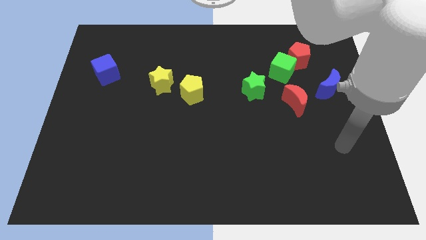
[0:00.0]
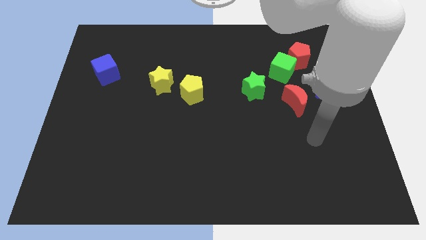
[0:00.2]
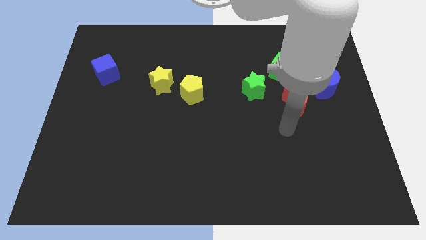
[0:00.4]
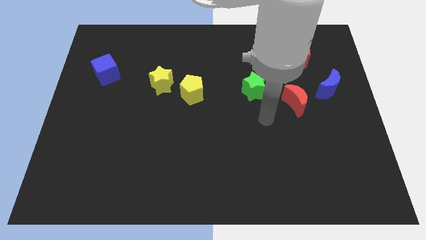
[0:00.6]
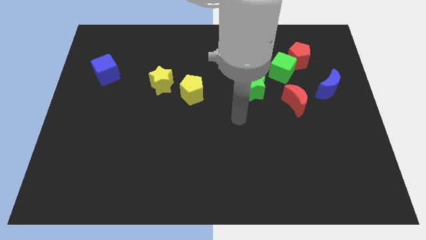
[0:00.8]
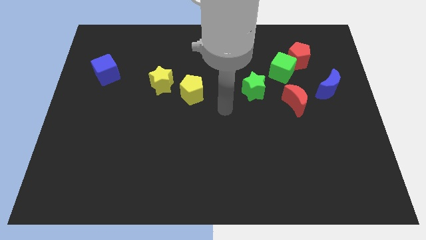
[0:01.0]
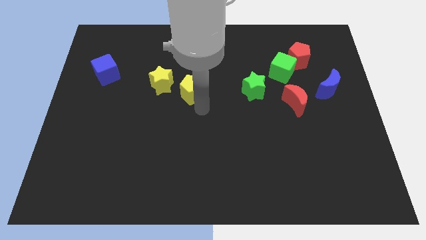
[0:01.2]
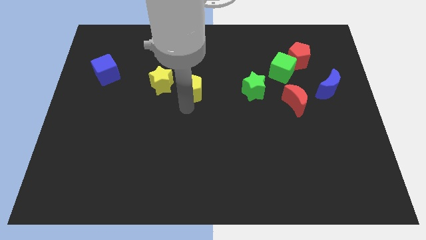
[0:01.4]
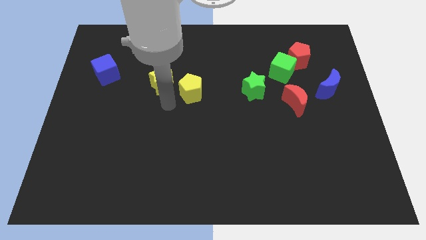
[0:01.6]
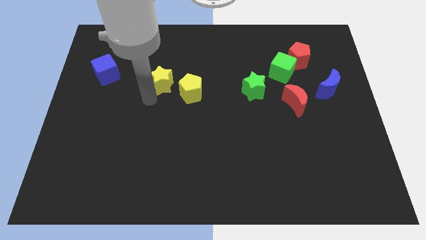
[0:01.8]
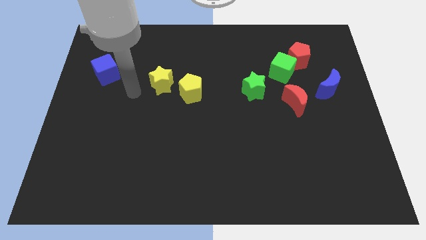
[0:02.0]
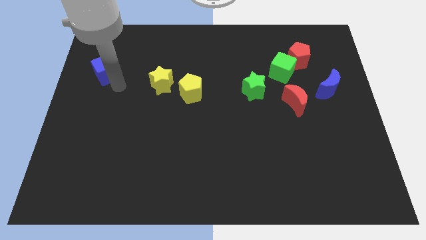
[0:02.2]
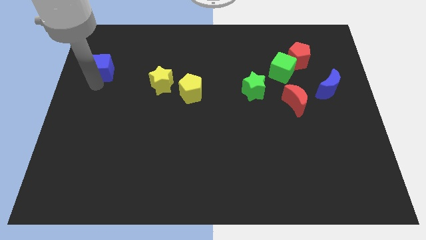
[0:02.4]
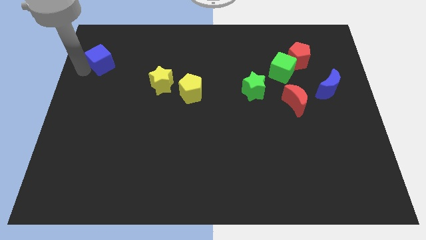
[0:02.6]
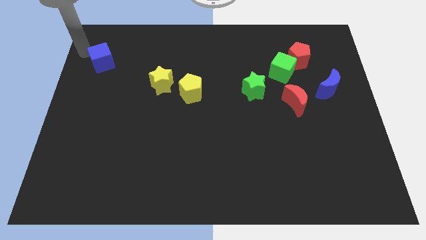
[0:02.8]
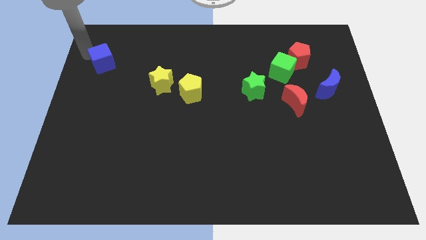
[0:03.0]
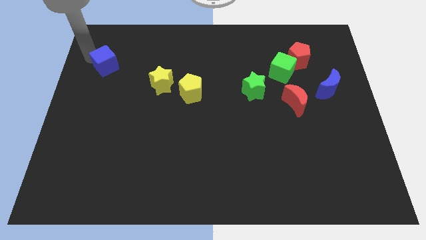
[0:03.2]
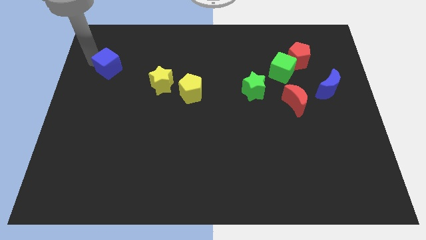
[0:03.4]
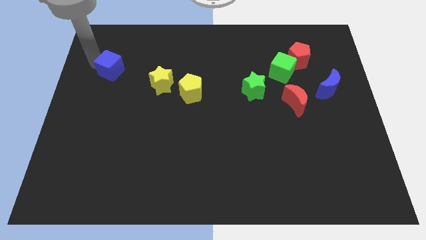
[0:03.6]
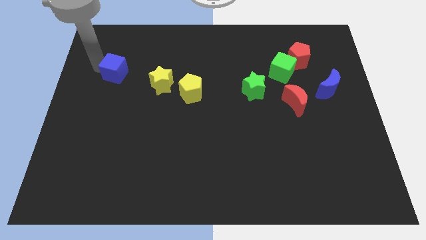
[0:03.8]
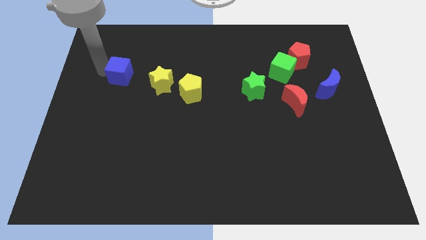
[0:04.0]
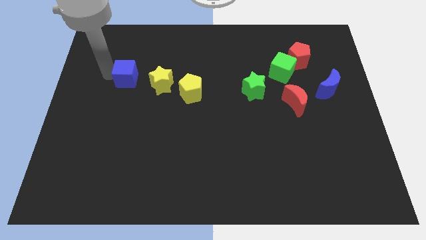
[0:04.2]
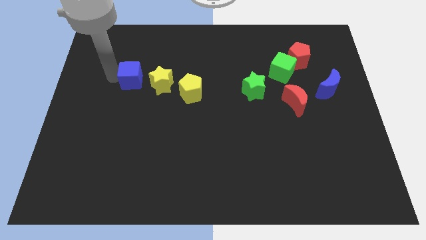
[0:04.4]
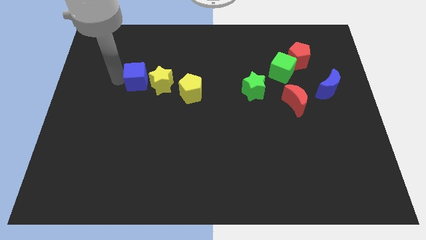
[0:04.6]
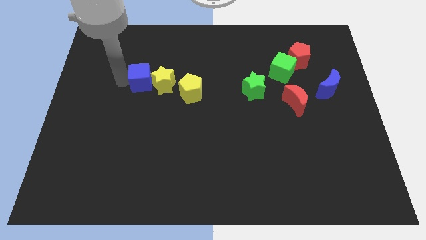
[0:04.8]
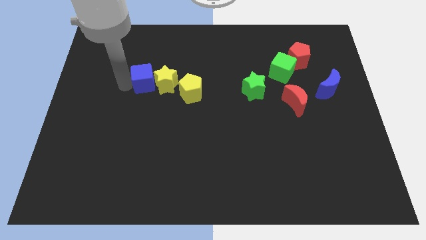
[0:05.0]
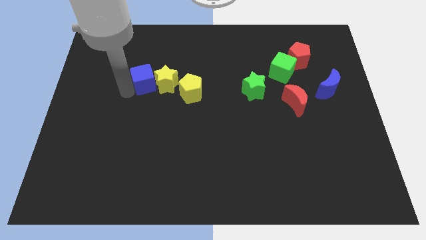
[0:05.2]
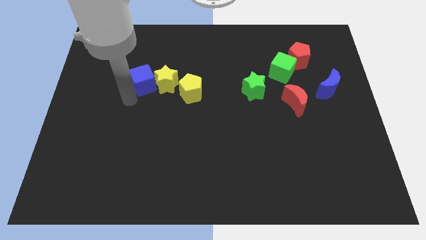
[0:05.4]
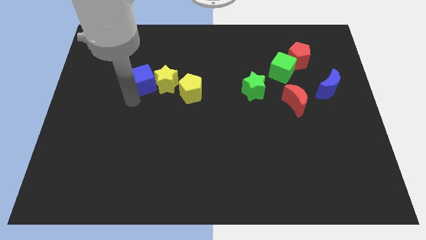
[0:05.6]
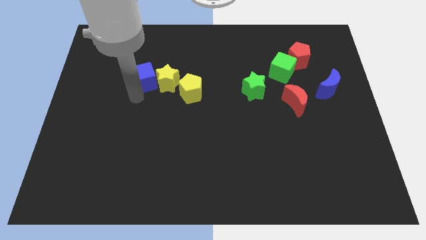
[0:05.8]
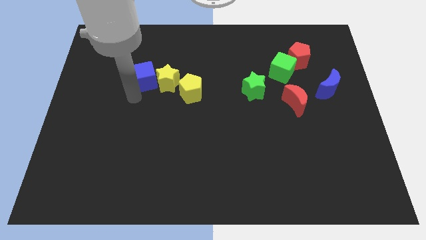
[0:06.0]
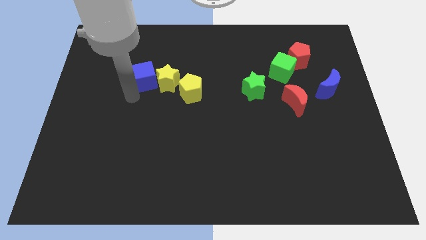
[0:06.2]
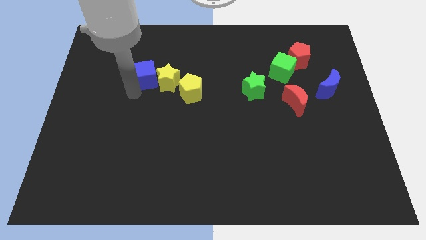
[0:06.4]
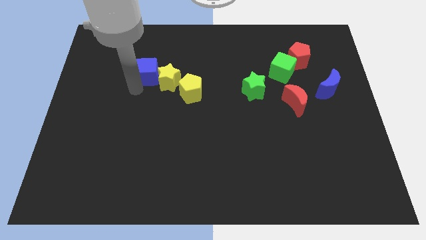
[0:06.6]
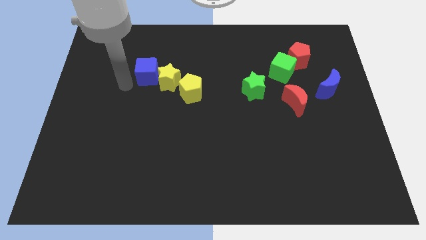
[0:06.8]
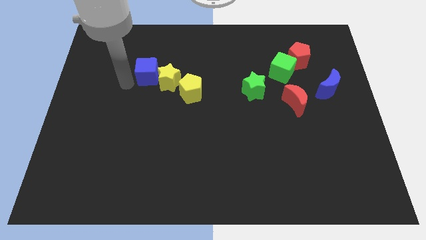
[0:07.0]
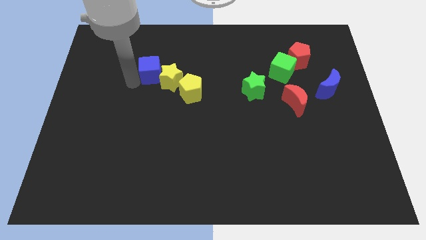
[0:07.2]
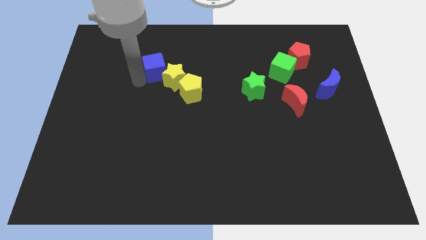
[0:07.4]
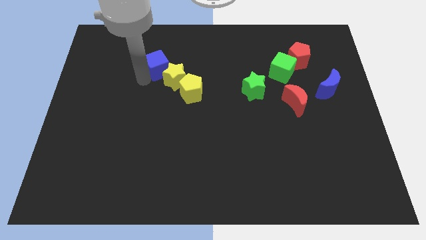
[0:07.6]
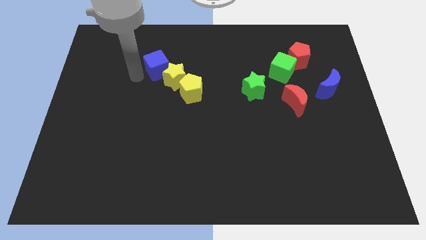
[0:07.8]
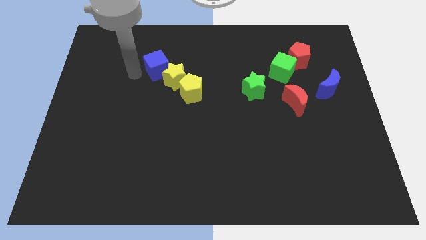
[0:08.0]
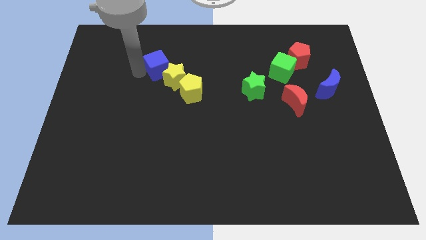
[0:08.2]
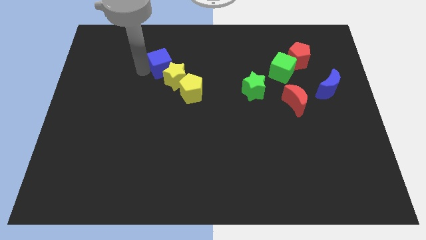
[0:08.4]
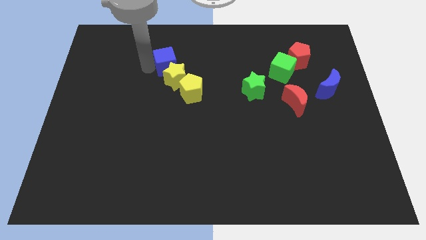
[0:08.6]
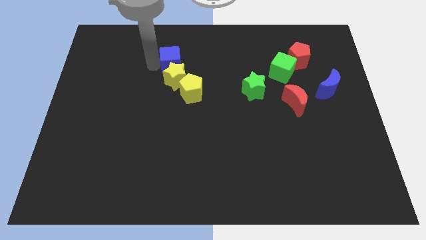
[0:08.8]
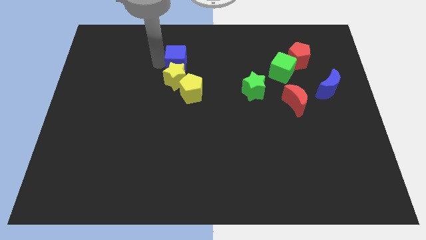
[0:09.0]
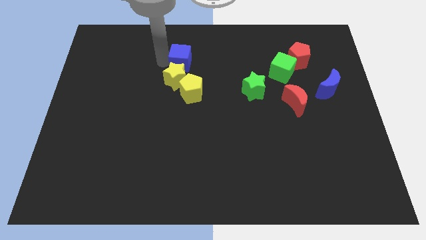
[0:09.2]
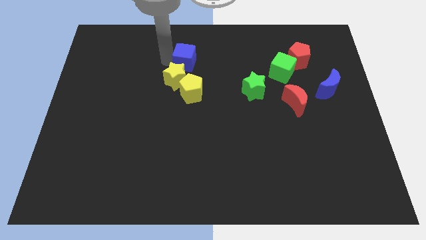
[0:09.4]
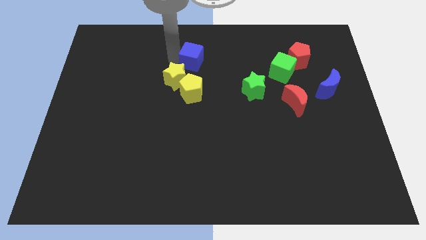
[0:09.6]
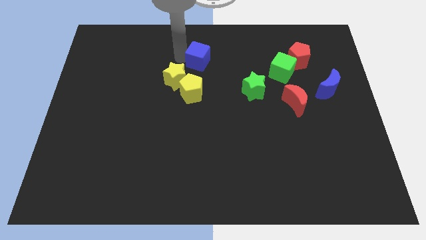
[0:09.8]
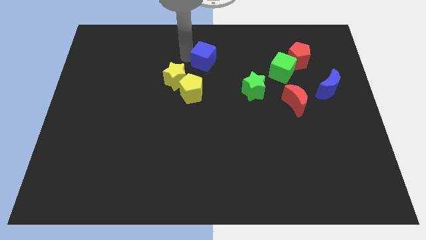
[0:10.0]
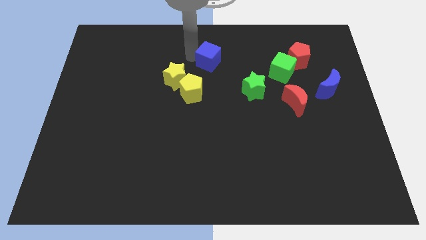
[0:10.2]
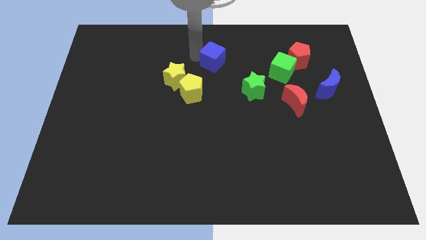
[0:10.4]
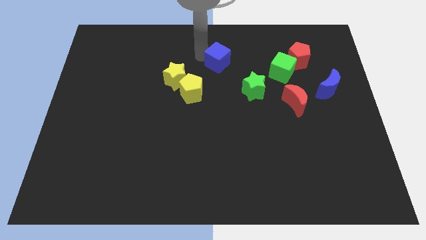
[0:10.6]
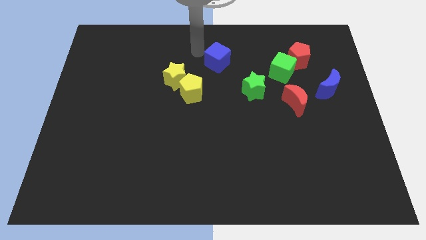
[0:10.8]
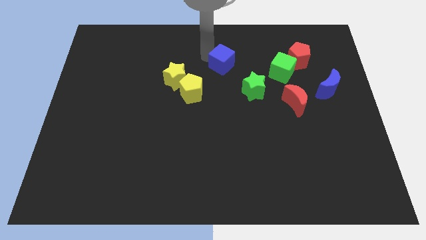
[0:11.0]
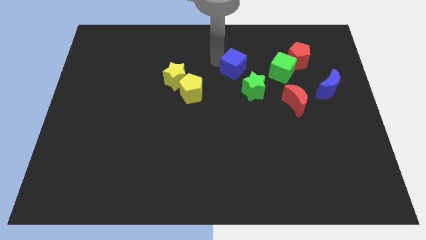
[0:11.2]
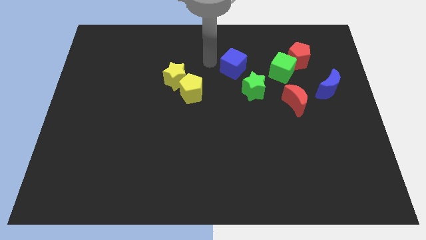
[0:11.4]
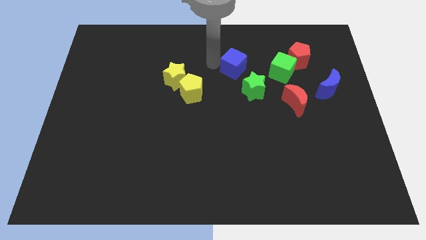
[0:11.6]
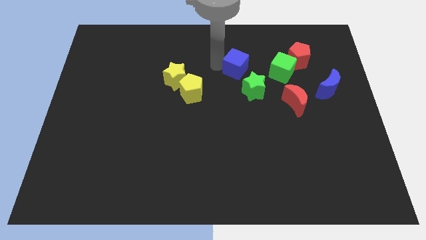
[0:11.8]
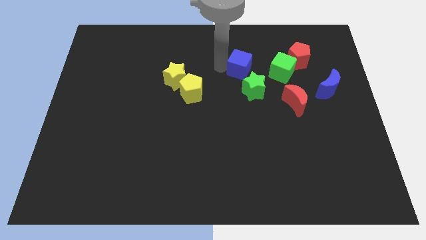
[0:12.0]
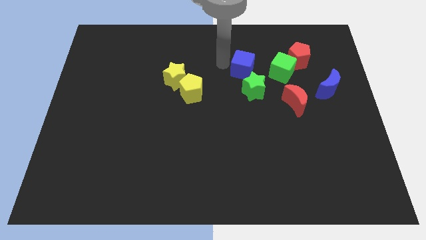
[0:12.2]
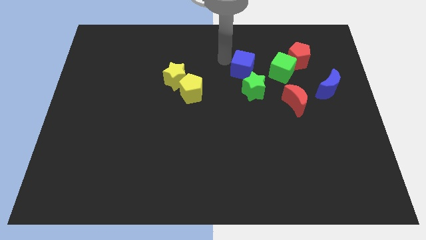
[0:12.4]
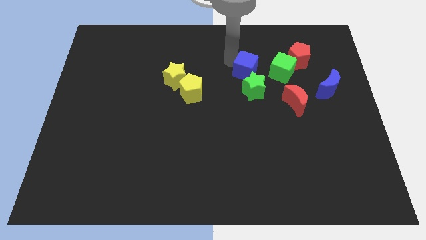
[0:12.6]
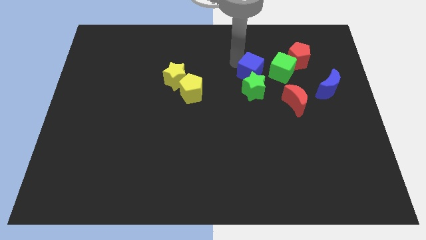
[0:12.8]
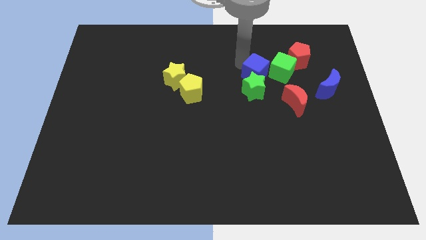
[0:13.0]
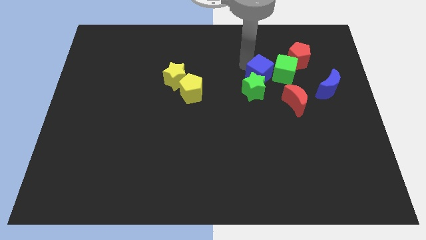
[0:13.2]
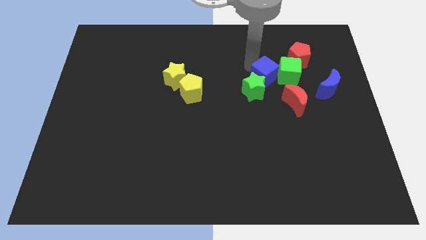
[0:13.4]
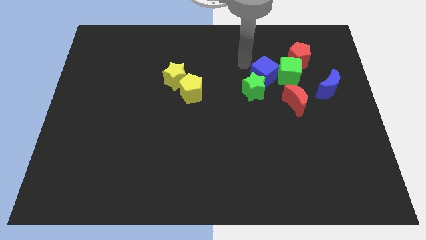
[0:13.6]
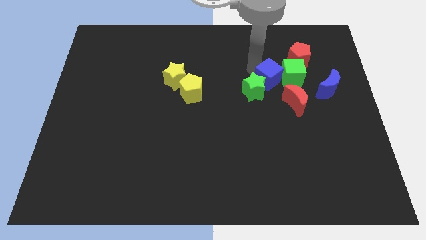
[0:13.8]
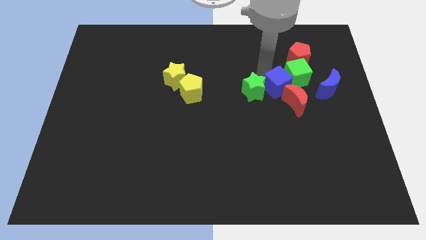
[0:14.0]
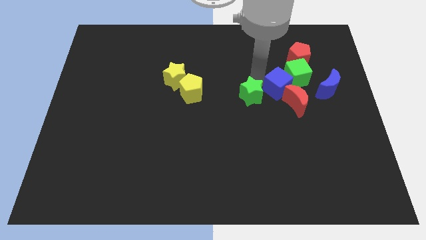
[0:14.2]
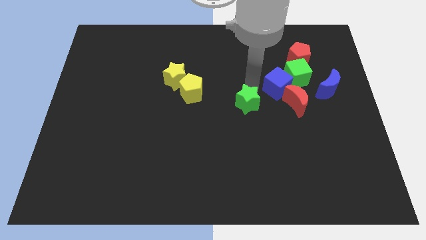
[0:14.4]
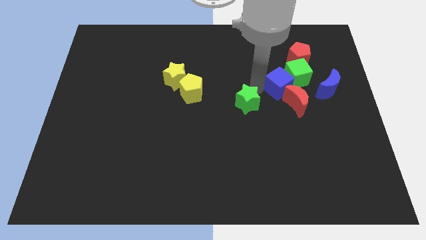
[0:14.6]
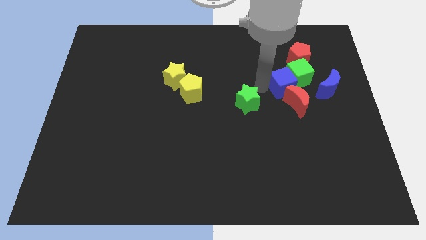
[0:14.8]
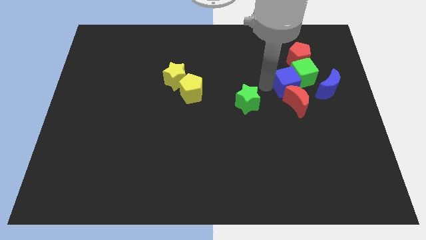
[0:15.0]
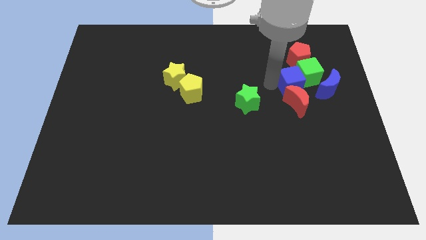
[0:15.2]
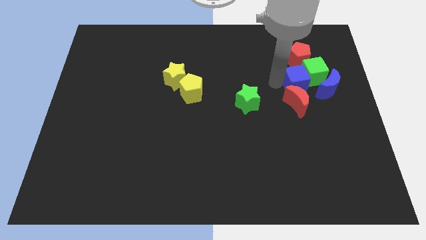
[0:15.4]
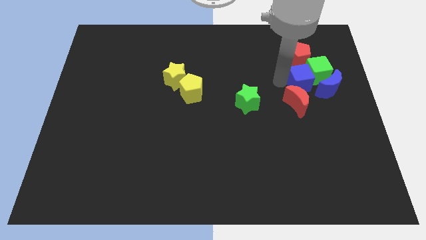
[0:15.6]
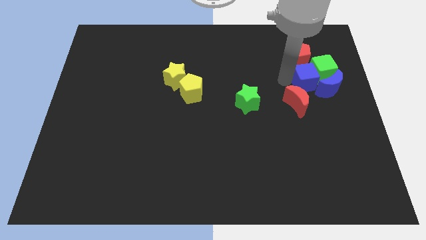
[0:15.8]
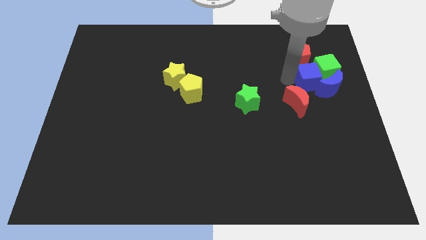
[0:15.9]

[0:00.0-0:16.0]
put the blue cube next to the blue moon
